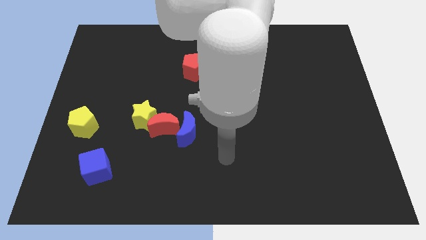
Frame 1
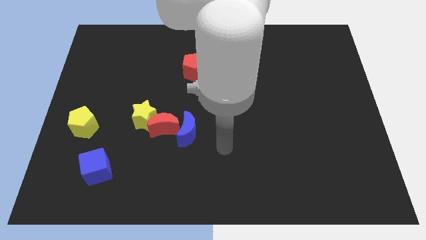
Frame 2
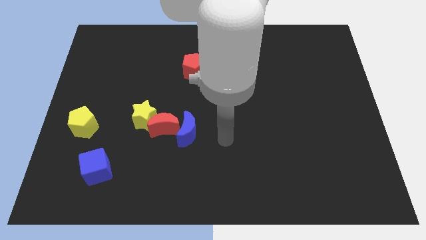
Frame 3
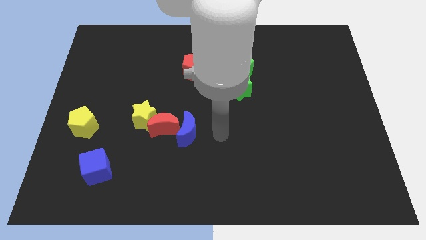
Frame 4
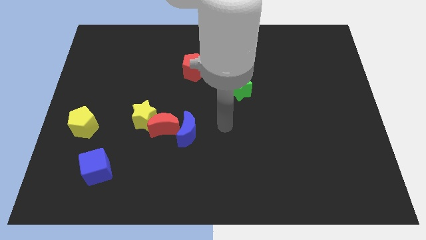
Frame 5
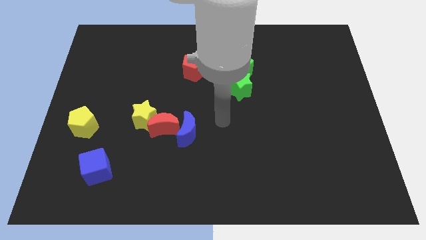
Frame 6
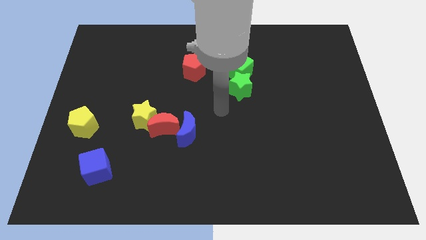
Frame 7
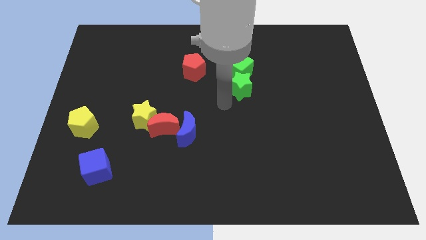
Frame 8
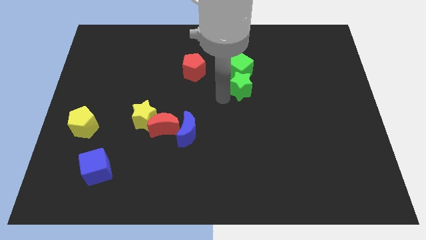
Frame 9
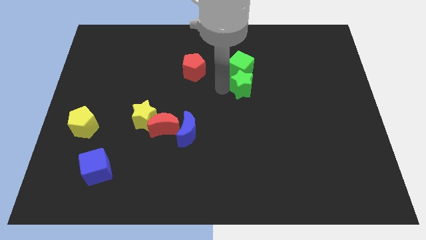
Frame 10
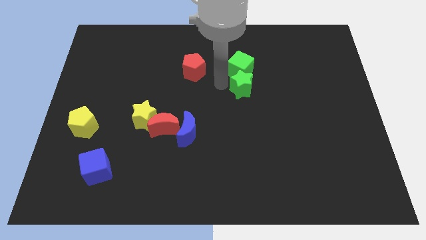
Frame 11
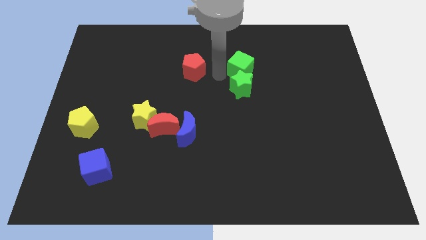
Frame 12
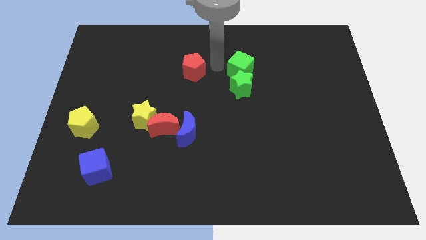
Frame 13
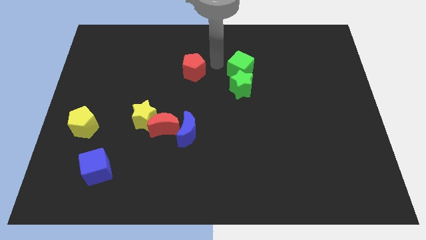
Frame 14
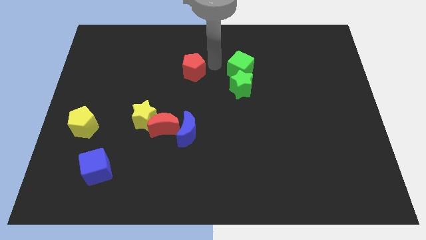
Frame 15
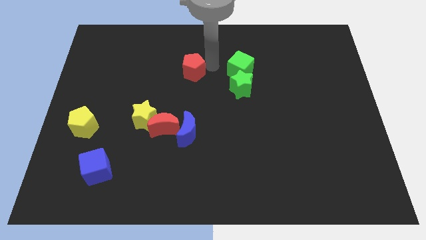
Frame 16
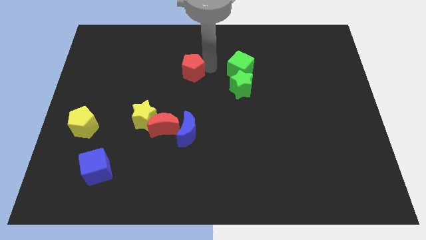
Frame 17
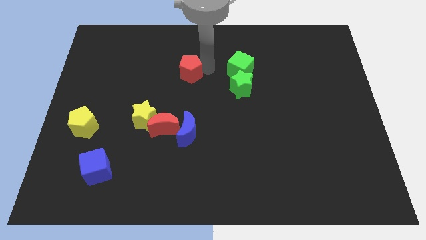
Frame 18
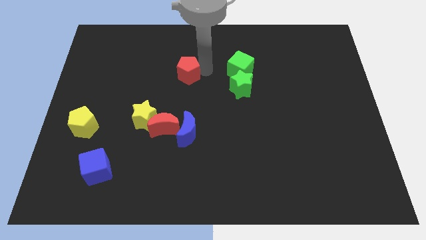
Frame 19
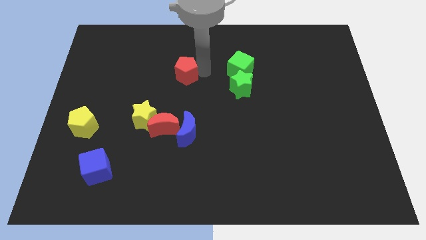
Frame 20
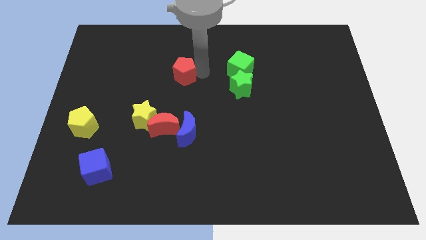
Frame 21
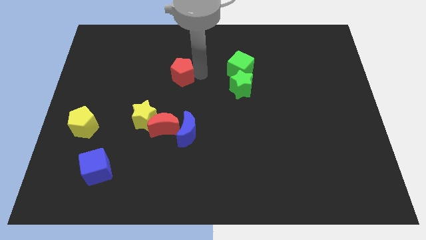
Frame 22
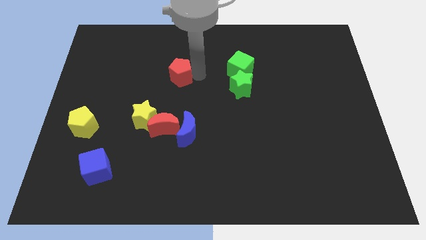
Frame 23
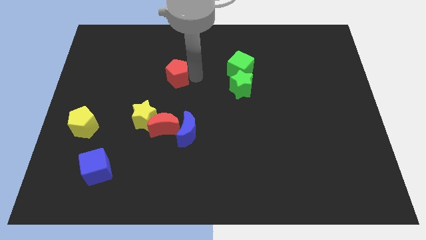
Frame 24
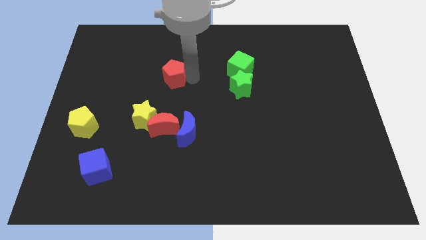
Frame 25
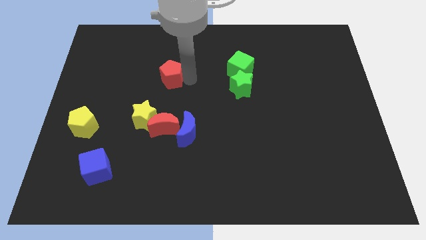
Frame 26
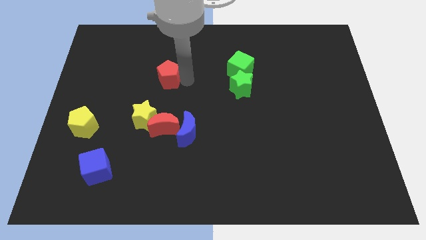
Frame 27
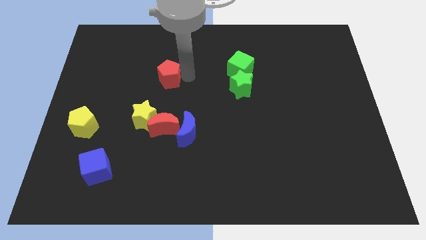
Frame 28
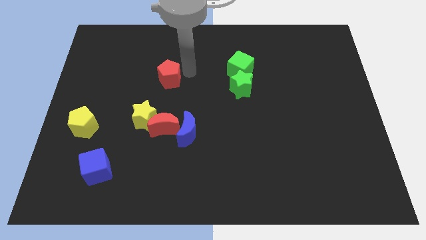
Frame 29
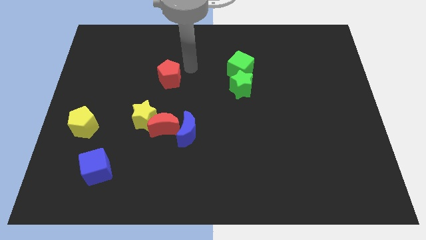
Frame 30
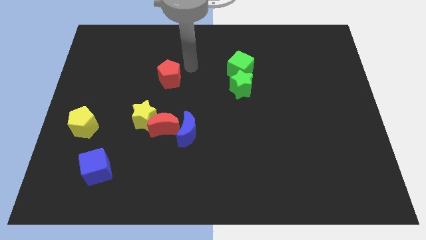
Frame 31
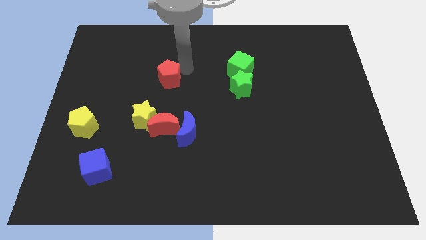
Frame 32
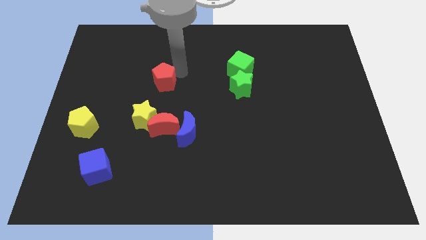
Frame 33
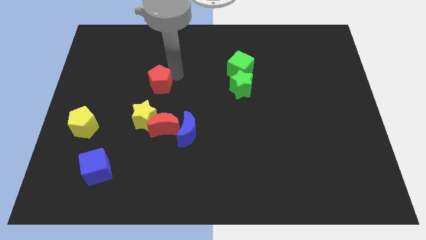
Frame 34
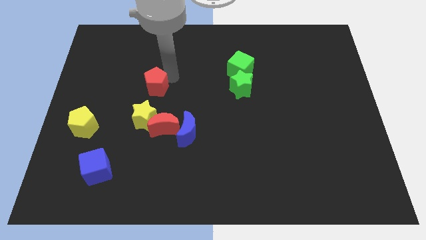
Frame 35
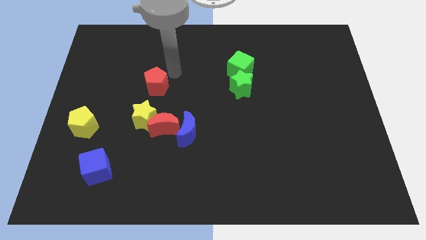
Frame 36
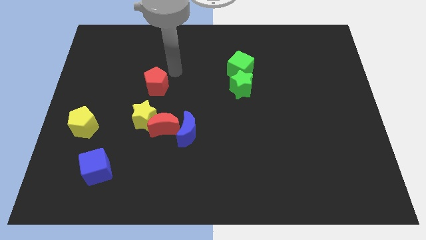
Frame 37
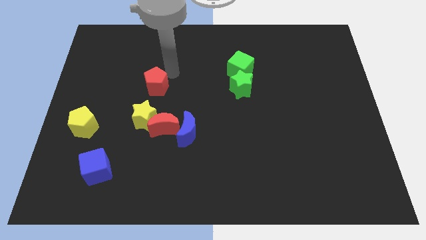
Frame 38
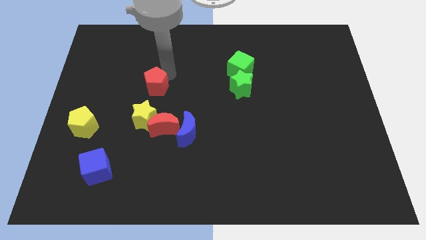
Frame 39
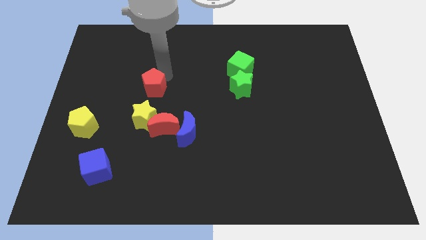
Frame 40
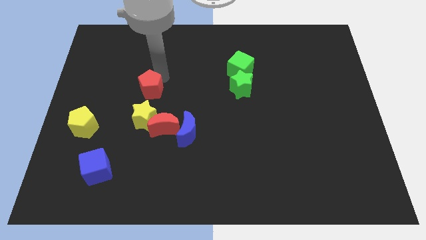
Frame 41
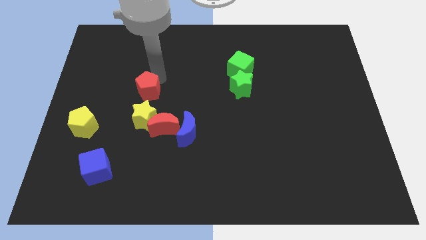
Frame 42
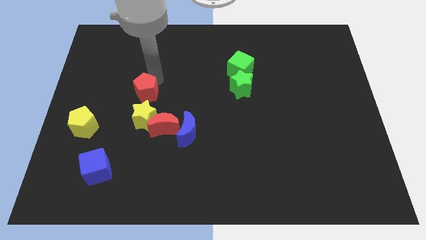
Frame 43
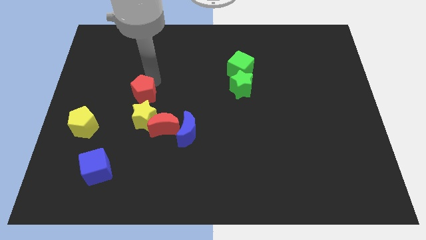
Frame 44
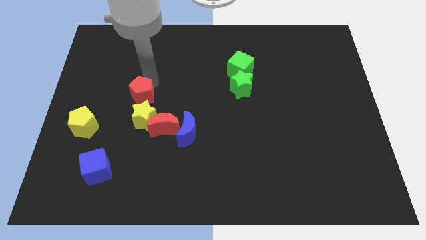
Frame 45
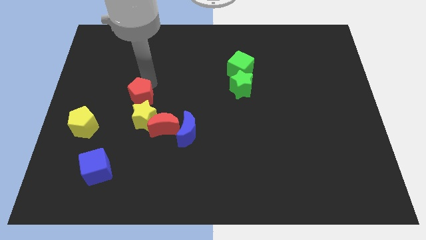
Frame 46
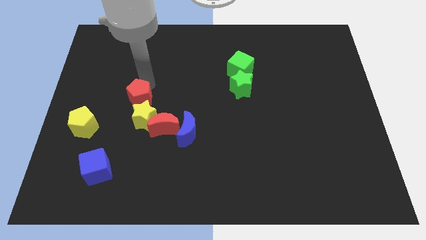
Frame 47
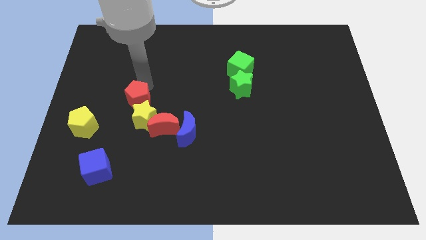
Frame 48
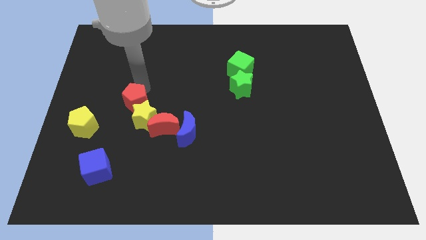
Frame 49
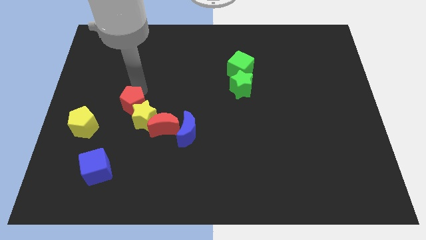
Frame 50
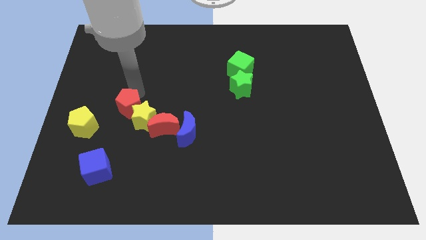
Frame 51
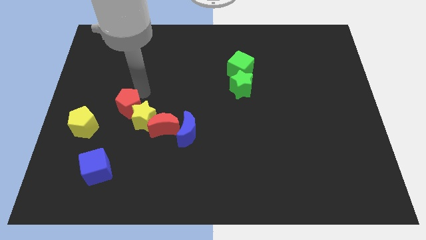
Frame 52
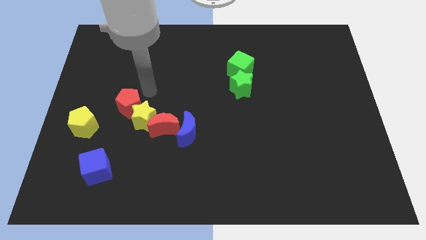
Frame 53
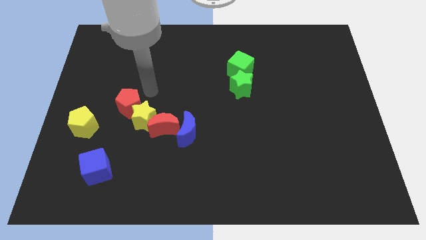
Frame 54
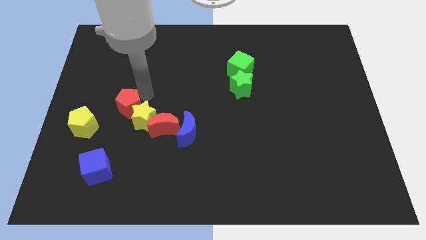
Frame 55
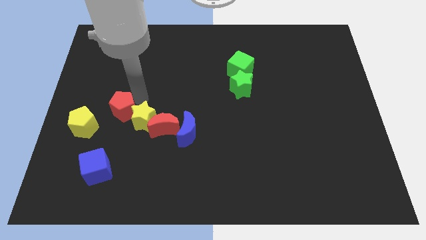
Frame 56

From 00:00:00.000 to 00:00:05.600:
move the red pentagon downwards and then to the left

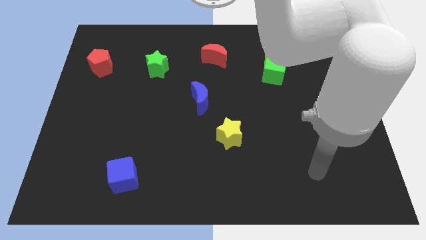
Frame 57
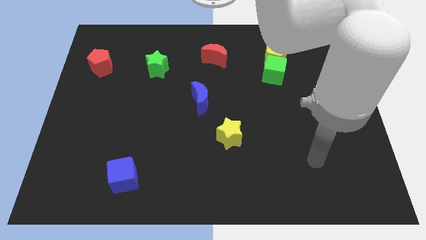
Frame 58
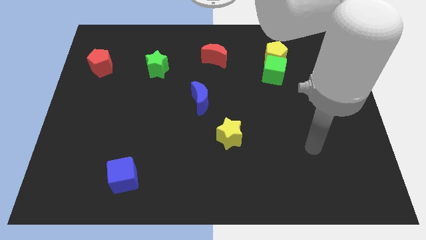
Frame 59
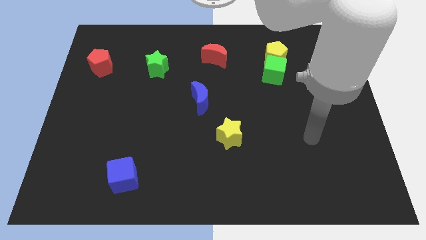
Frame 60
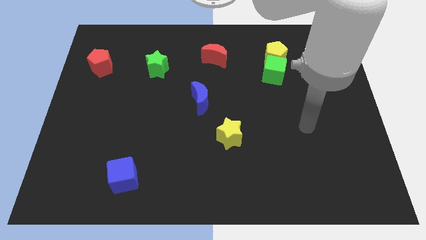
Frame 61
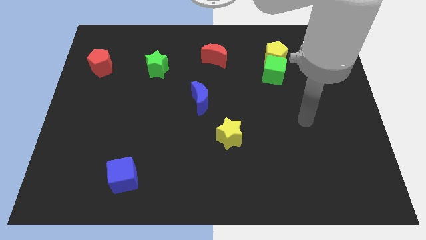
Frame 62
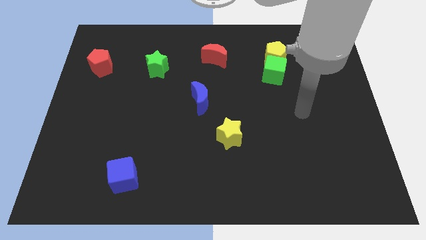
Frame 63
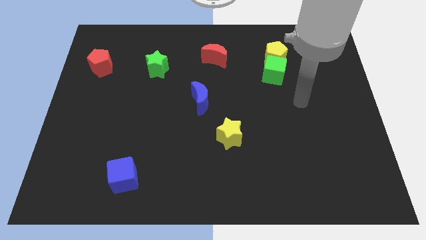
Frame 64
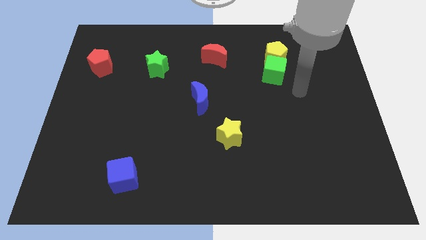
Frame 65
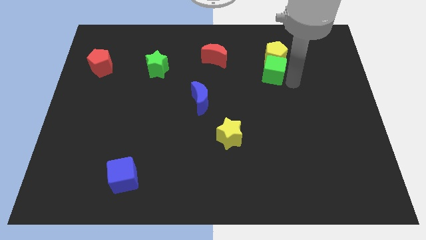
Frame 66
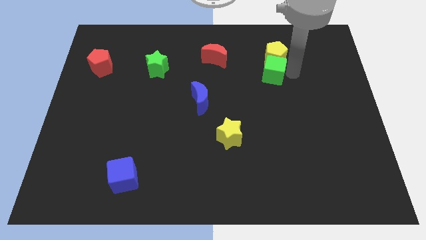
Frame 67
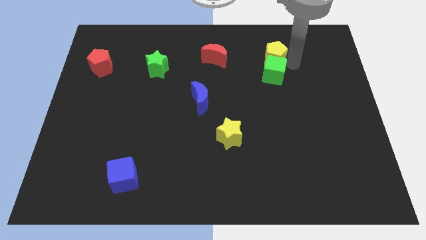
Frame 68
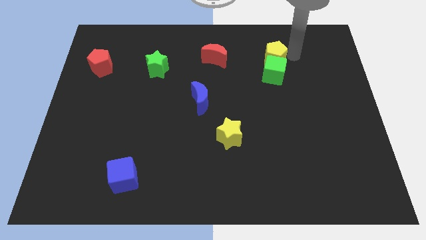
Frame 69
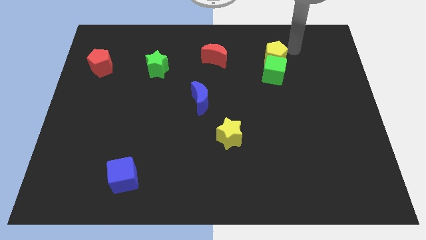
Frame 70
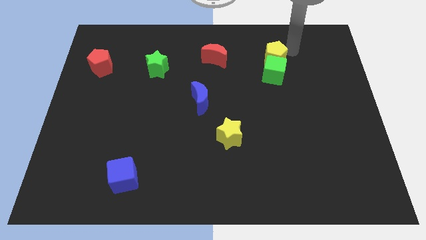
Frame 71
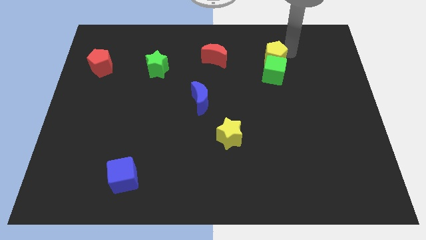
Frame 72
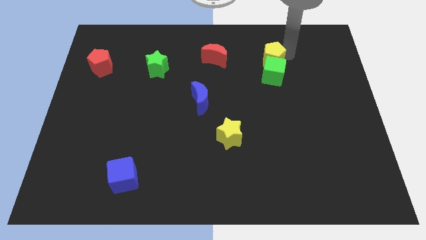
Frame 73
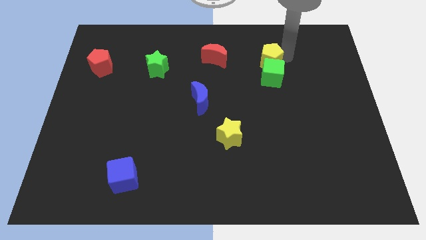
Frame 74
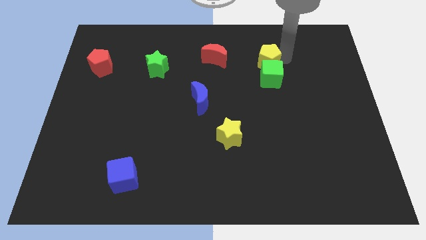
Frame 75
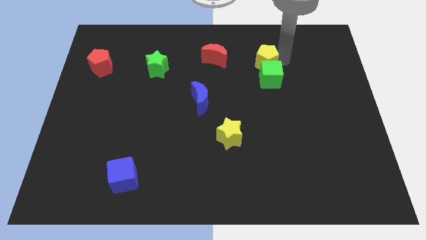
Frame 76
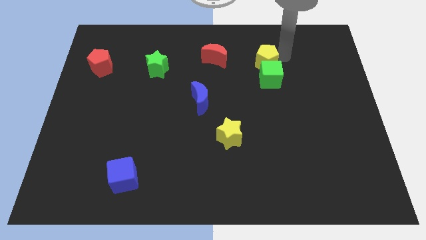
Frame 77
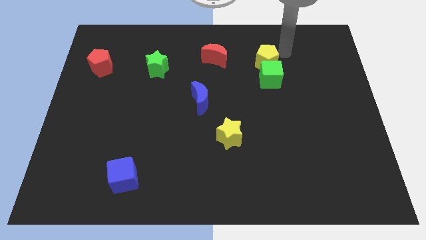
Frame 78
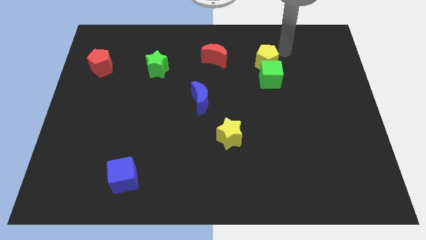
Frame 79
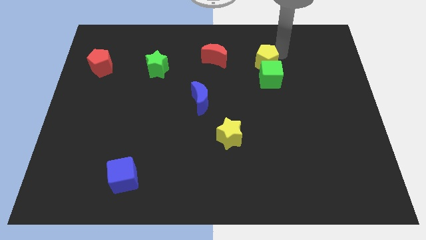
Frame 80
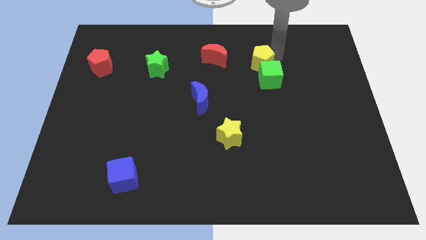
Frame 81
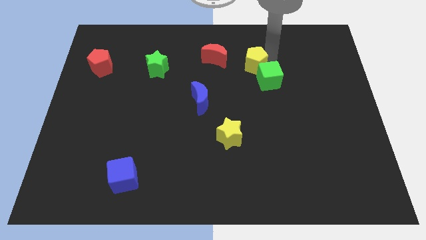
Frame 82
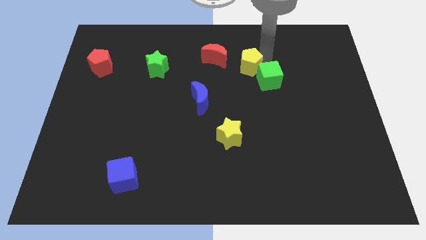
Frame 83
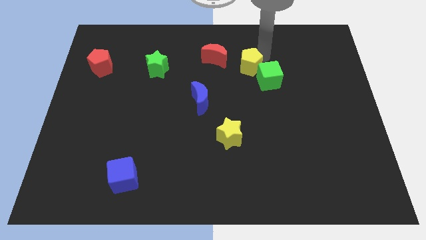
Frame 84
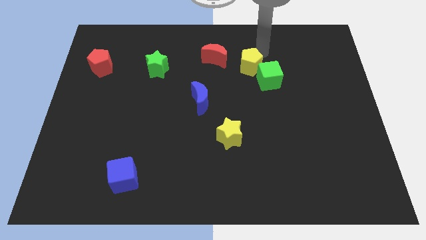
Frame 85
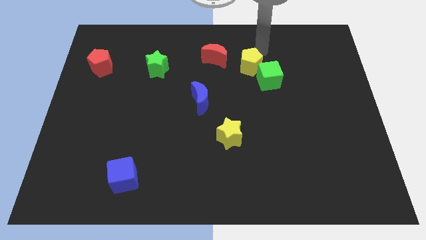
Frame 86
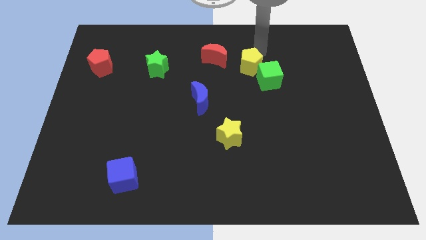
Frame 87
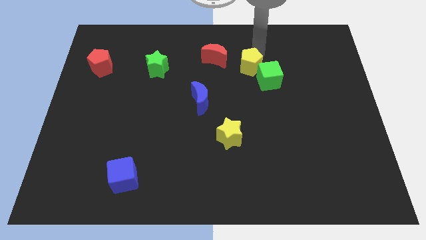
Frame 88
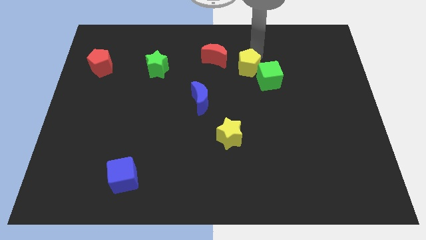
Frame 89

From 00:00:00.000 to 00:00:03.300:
slide the yellow pentagon downwards and then to the left a little
